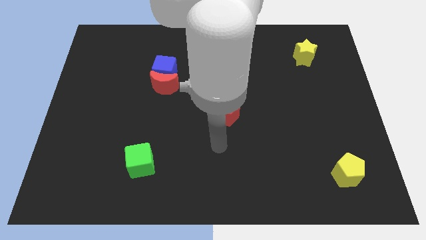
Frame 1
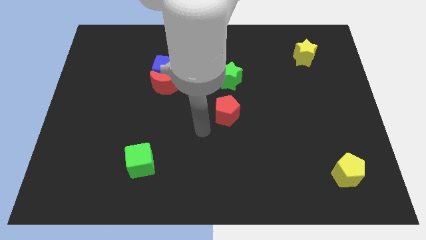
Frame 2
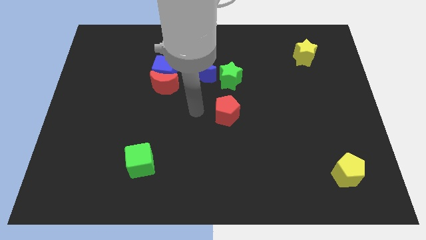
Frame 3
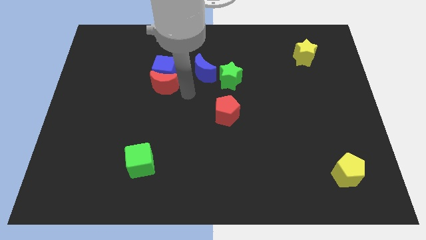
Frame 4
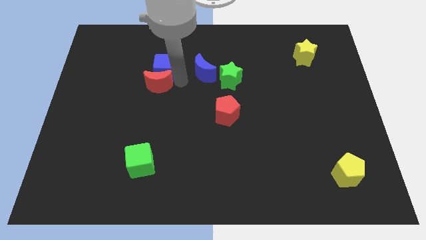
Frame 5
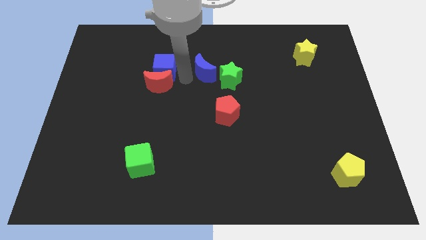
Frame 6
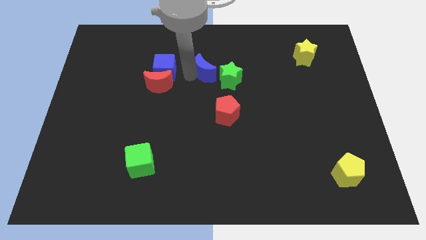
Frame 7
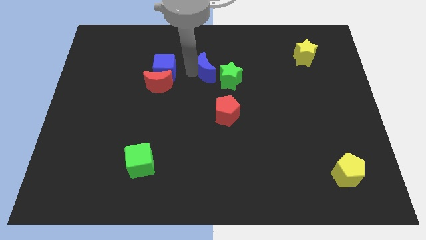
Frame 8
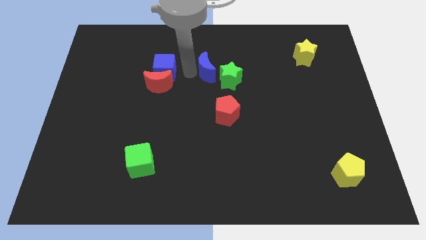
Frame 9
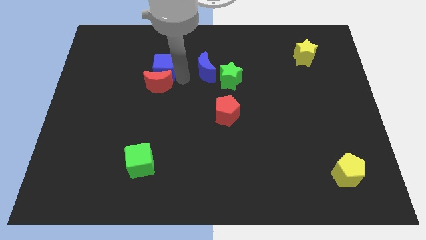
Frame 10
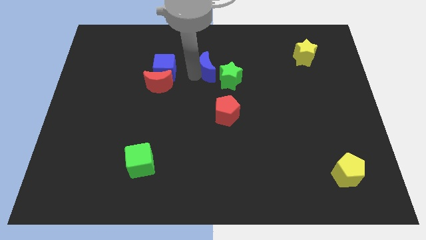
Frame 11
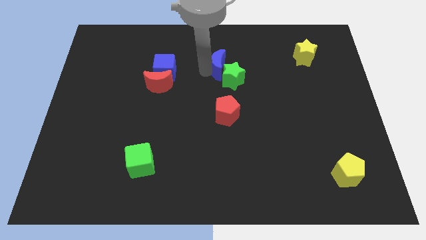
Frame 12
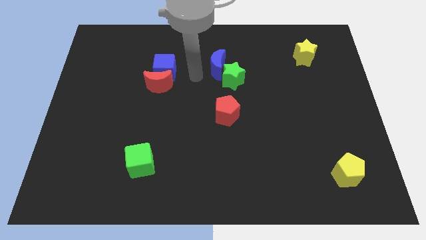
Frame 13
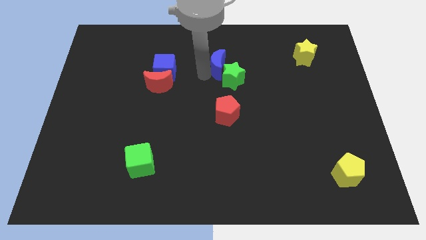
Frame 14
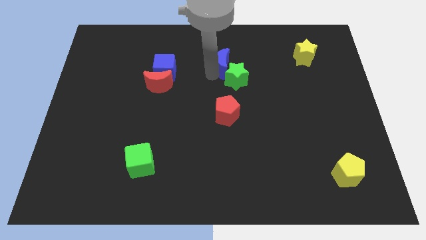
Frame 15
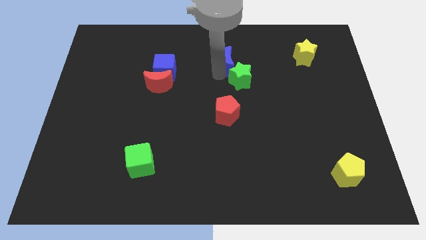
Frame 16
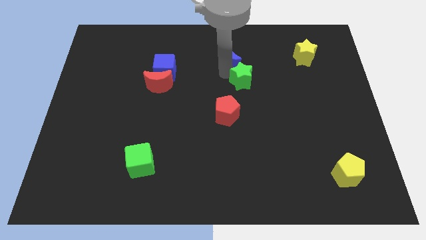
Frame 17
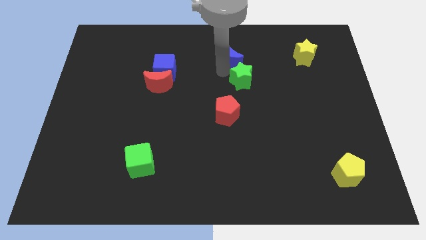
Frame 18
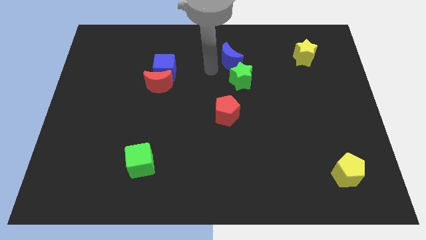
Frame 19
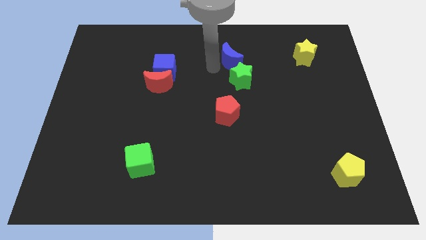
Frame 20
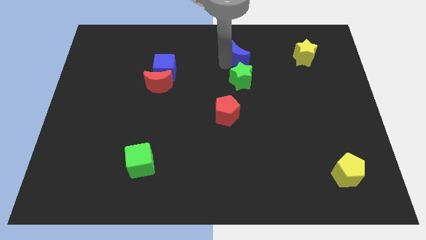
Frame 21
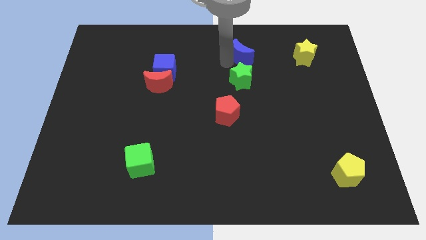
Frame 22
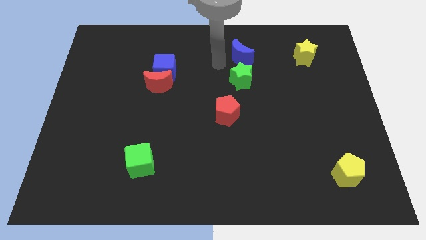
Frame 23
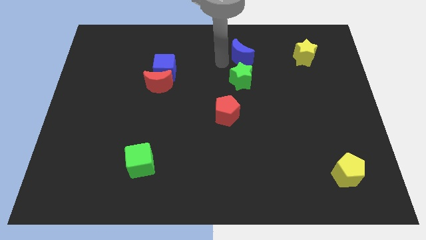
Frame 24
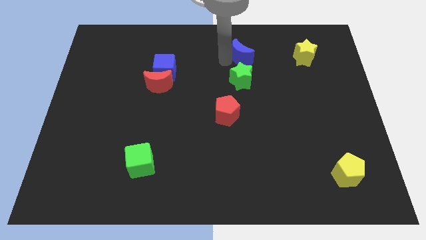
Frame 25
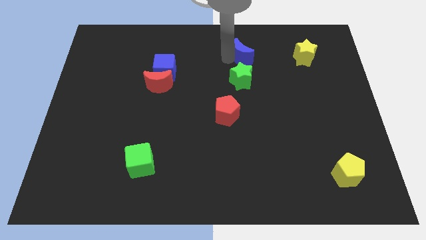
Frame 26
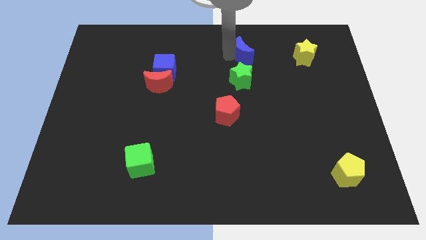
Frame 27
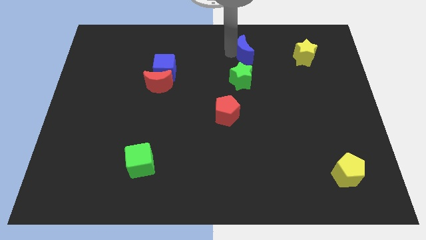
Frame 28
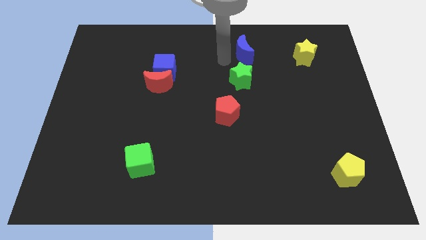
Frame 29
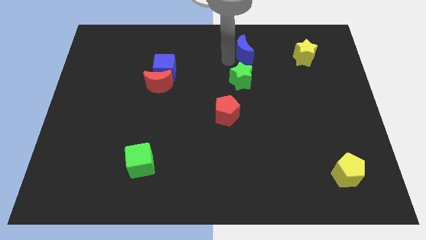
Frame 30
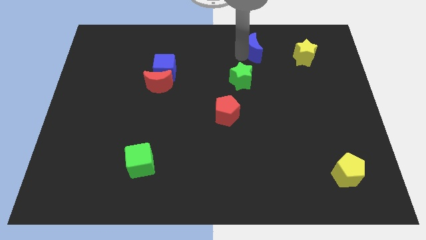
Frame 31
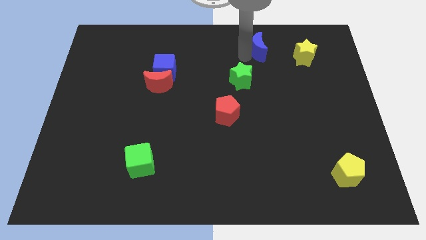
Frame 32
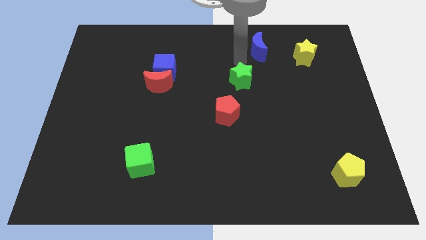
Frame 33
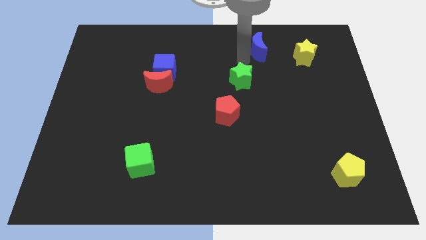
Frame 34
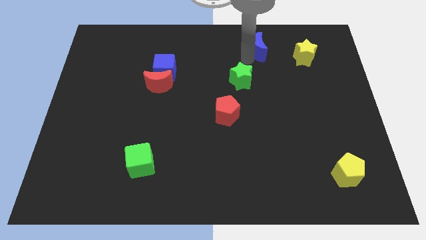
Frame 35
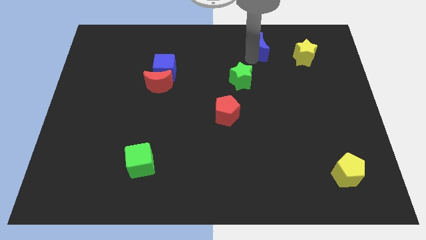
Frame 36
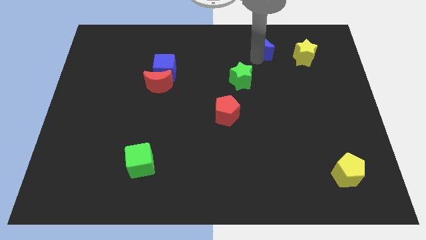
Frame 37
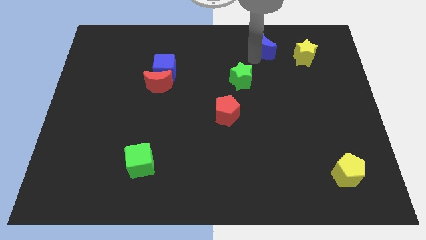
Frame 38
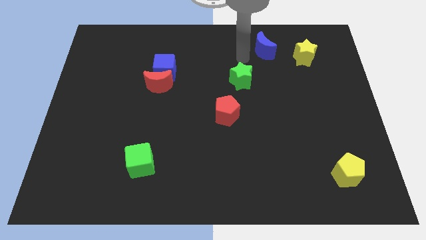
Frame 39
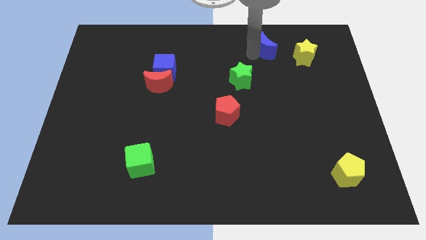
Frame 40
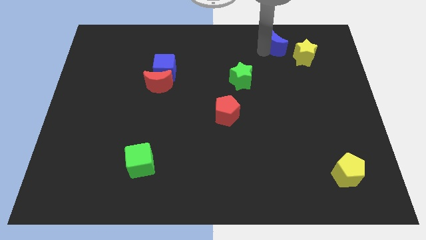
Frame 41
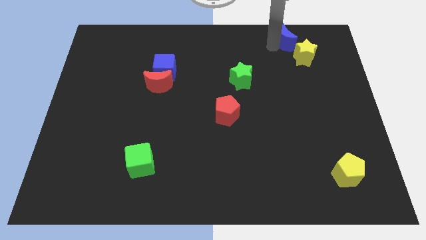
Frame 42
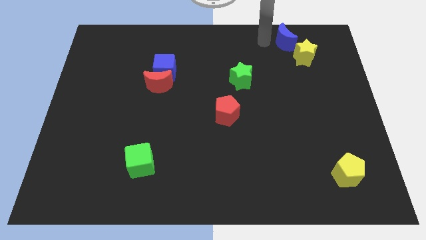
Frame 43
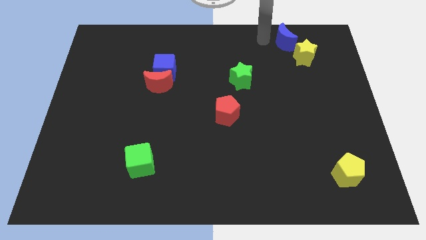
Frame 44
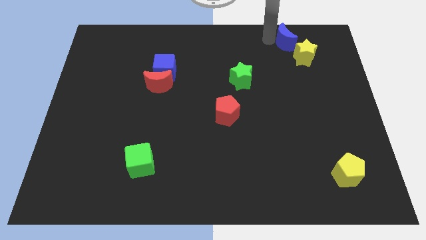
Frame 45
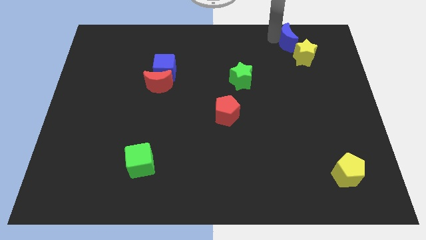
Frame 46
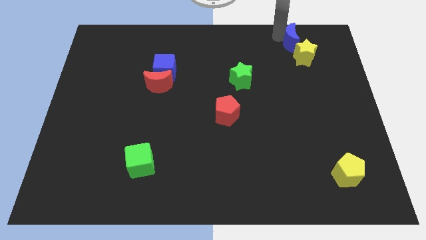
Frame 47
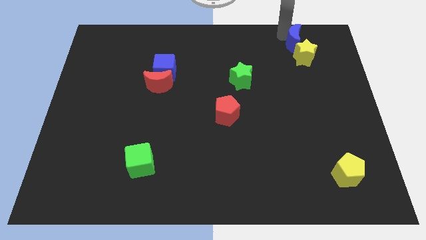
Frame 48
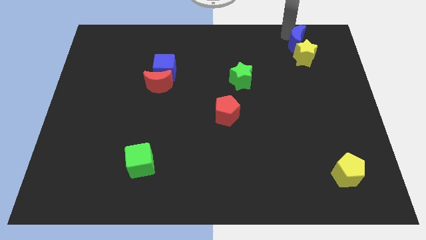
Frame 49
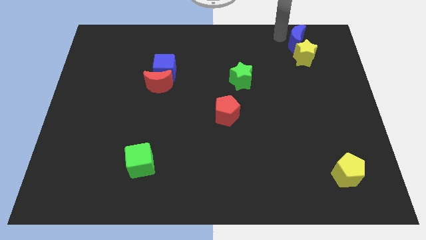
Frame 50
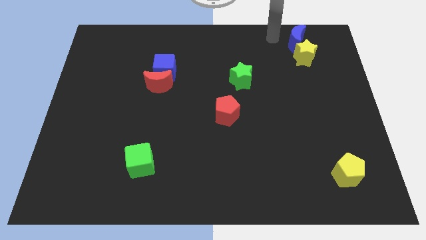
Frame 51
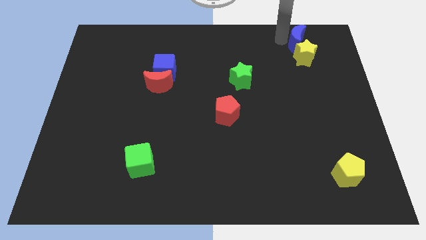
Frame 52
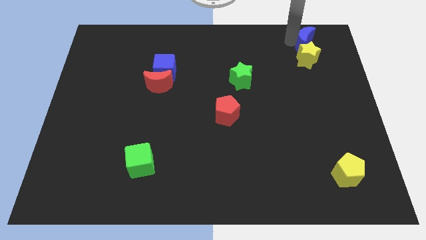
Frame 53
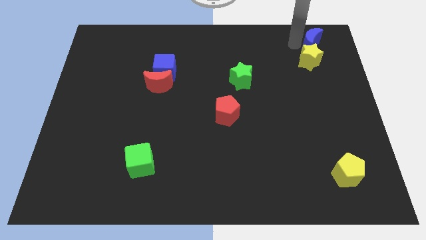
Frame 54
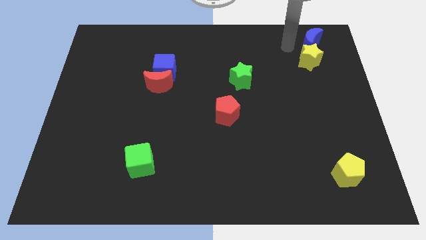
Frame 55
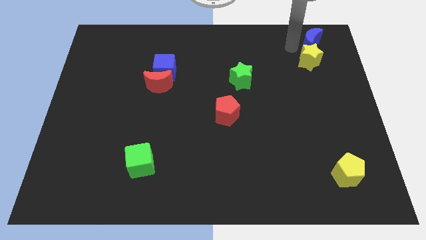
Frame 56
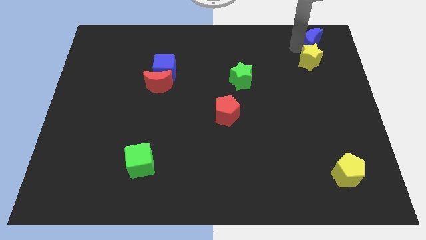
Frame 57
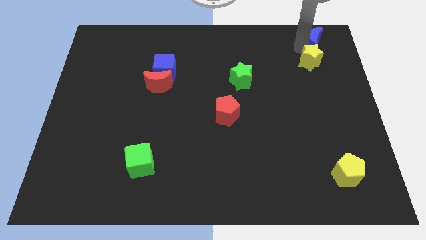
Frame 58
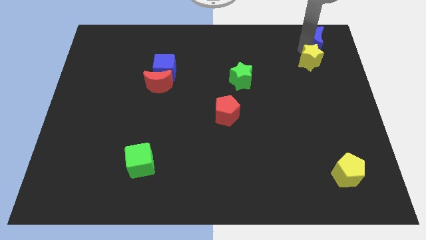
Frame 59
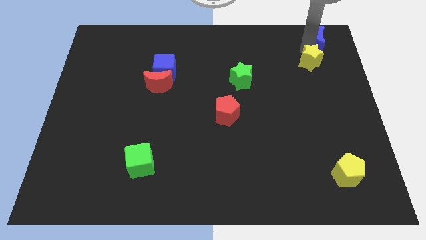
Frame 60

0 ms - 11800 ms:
move the blue moon to the top right of the board
